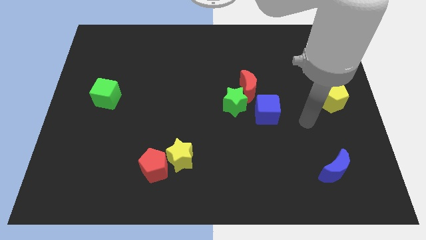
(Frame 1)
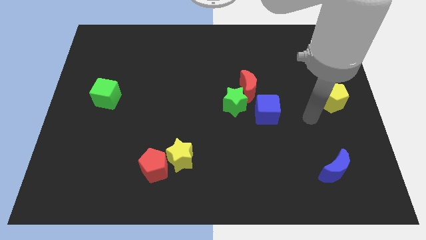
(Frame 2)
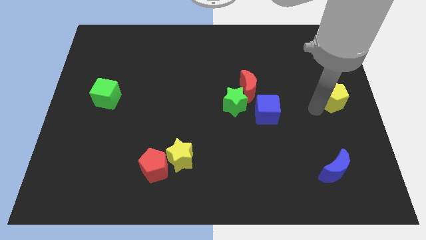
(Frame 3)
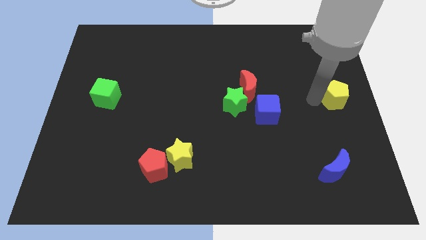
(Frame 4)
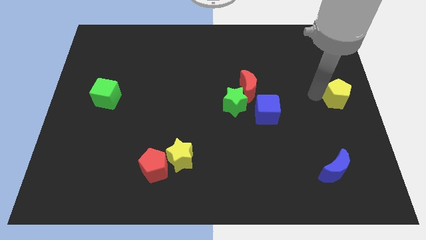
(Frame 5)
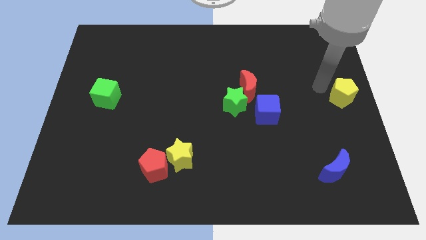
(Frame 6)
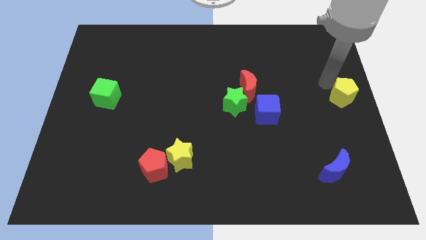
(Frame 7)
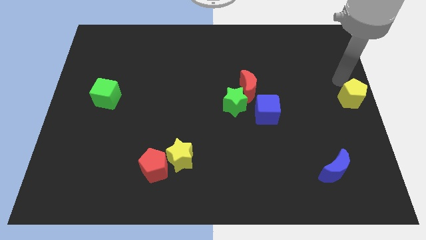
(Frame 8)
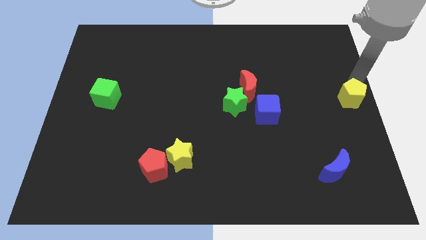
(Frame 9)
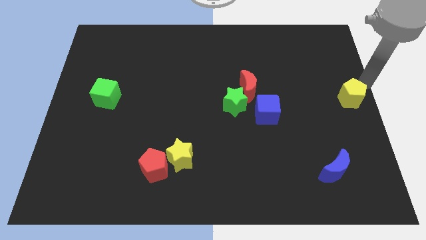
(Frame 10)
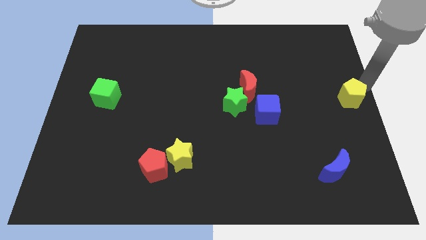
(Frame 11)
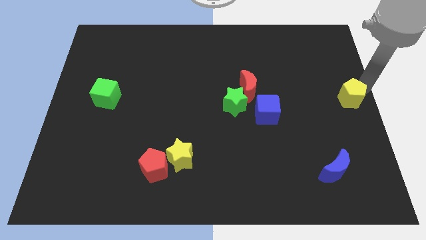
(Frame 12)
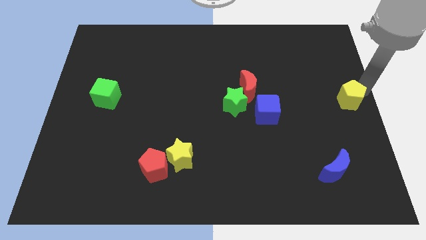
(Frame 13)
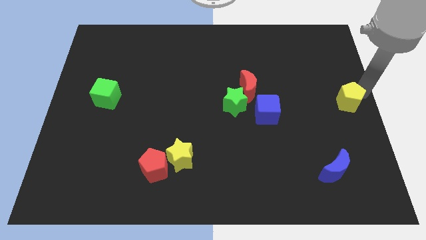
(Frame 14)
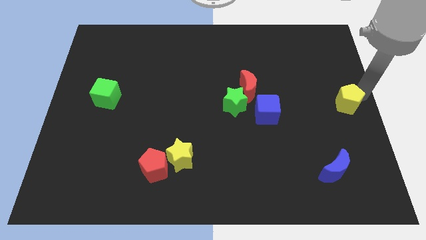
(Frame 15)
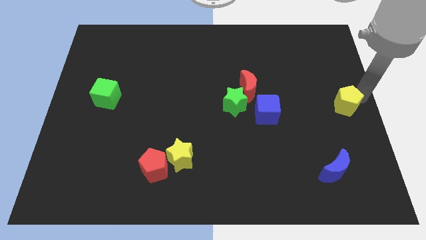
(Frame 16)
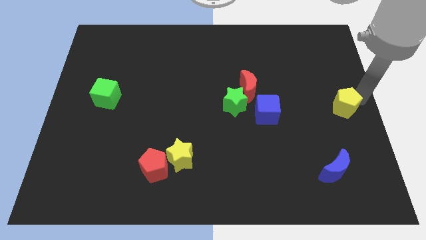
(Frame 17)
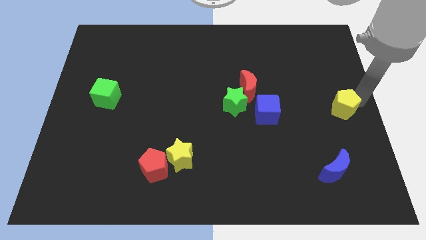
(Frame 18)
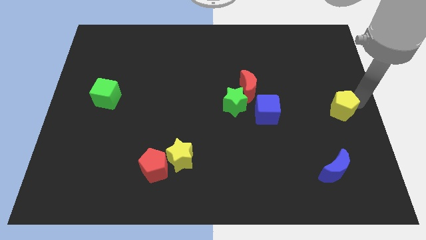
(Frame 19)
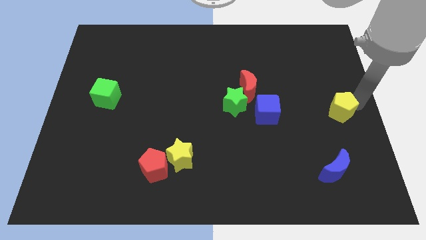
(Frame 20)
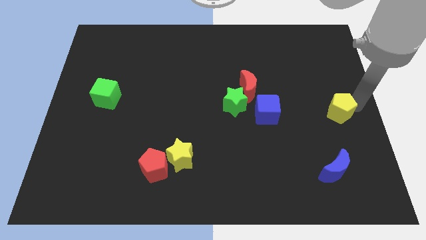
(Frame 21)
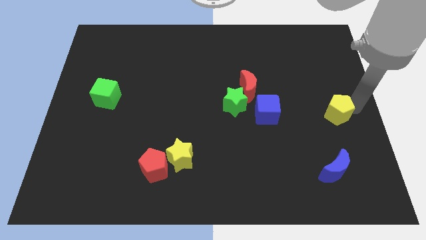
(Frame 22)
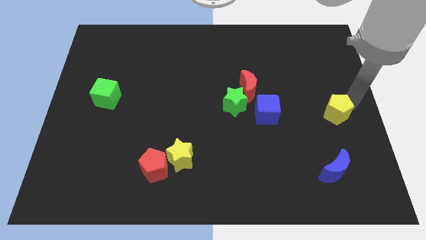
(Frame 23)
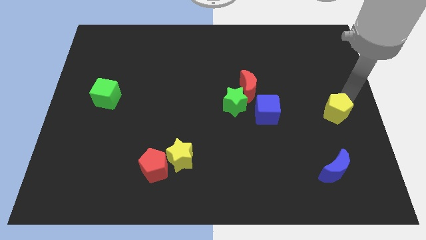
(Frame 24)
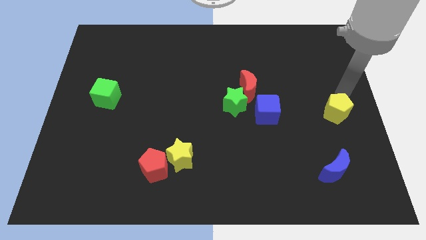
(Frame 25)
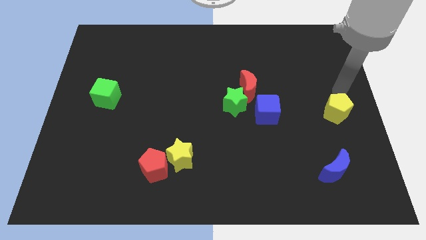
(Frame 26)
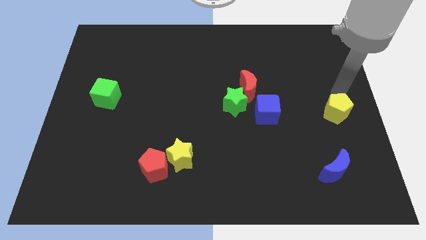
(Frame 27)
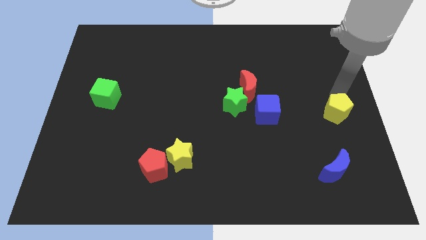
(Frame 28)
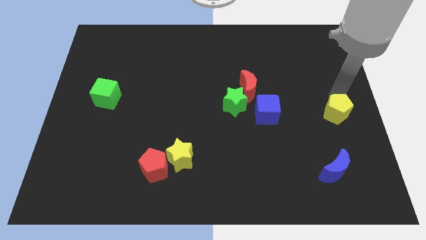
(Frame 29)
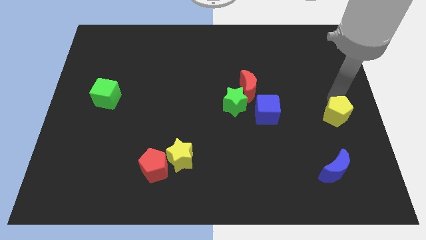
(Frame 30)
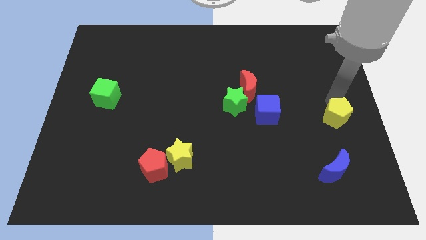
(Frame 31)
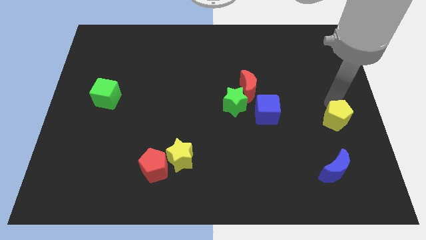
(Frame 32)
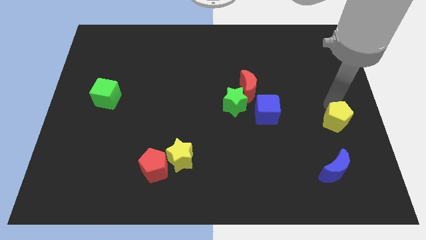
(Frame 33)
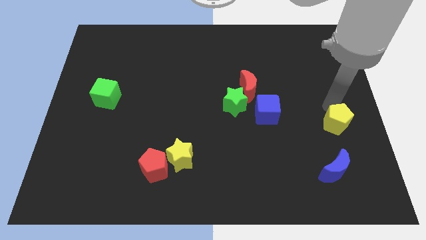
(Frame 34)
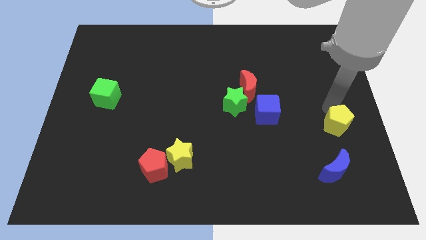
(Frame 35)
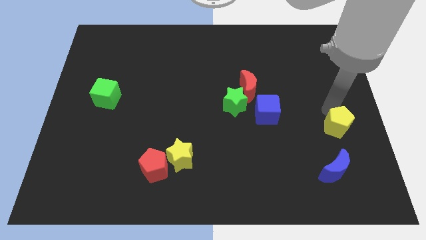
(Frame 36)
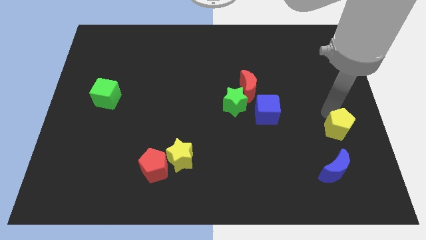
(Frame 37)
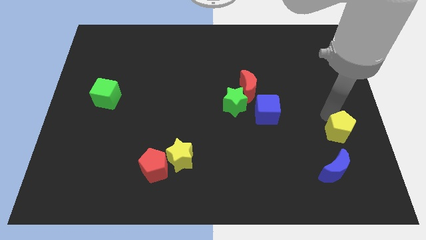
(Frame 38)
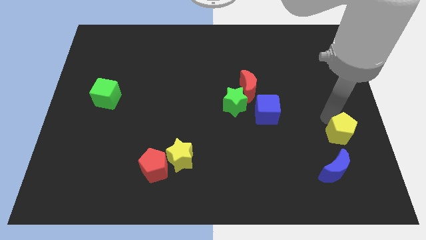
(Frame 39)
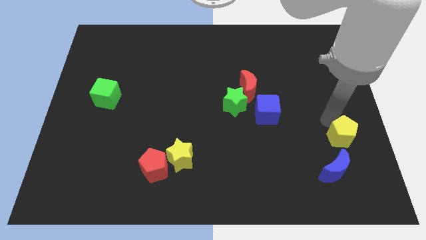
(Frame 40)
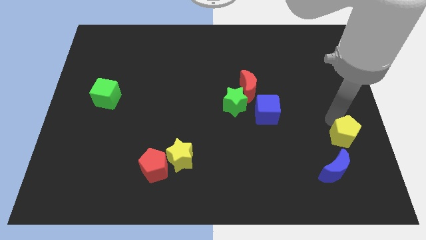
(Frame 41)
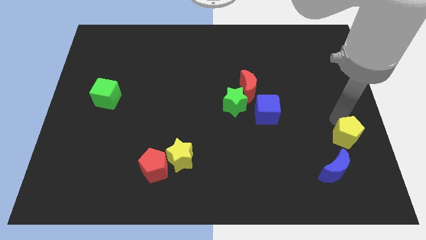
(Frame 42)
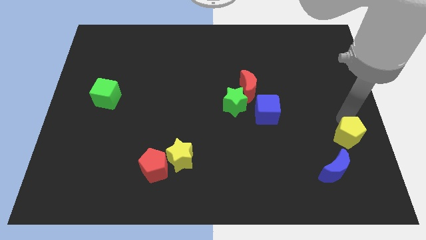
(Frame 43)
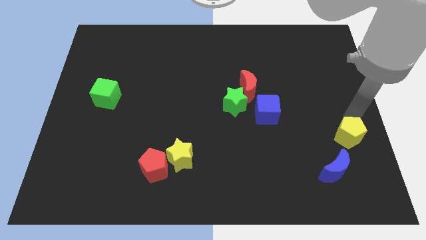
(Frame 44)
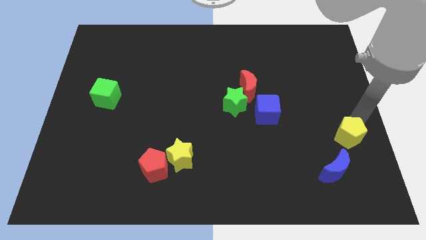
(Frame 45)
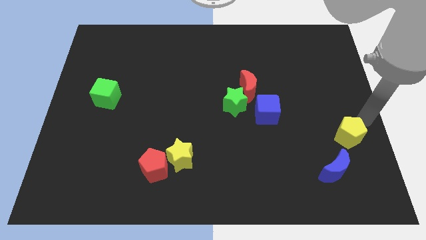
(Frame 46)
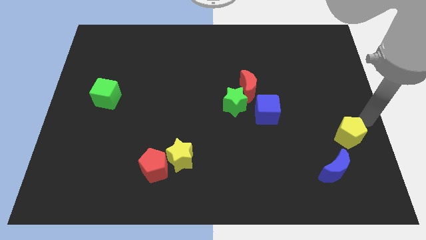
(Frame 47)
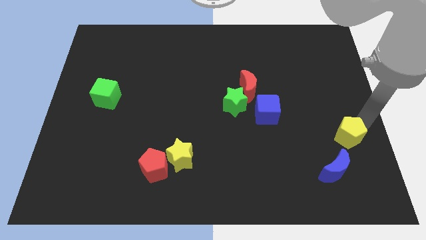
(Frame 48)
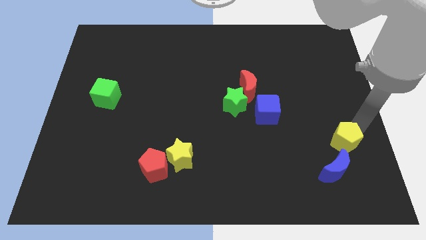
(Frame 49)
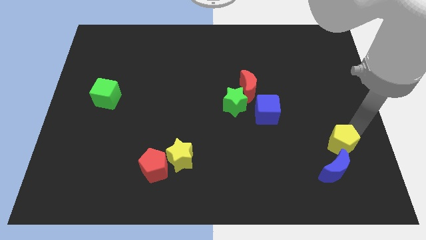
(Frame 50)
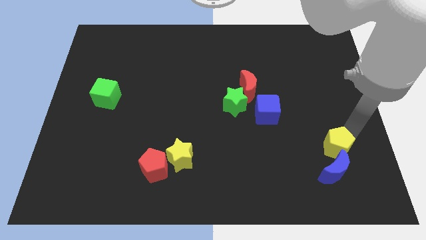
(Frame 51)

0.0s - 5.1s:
slide the yellow pentagon next to the blue moon

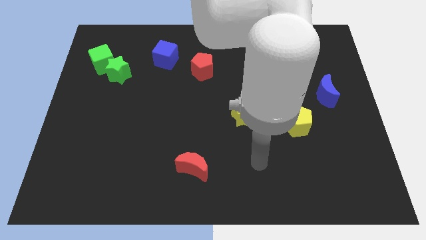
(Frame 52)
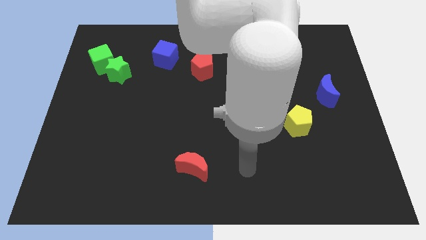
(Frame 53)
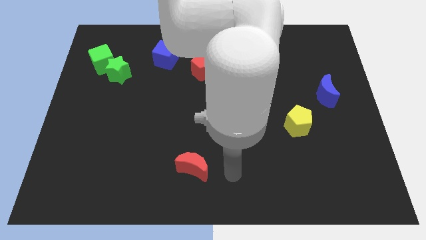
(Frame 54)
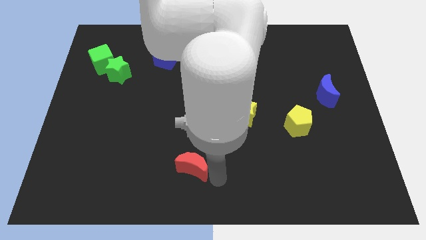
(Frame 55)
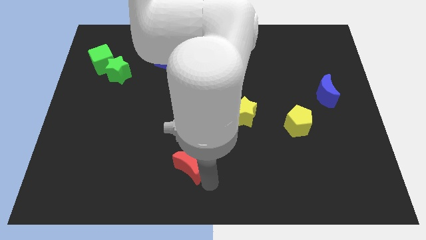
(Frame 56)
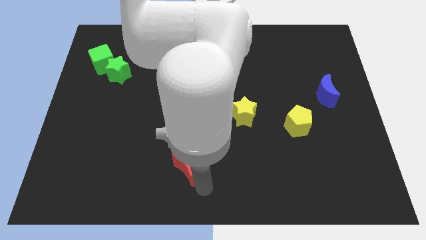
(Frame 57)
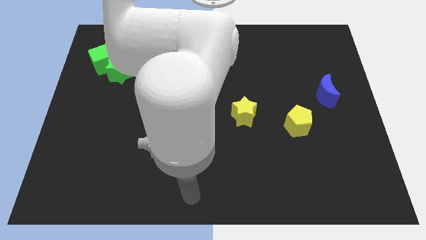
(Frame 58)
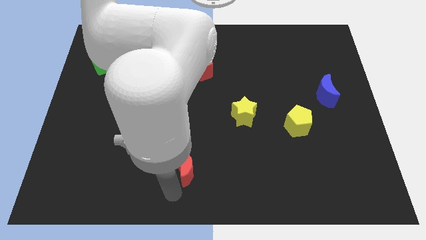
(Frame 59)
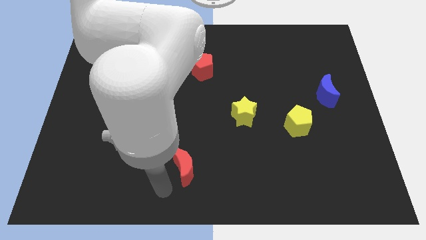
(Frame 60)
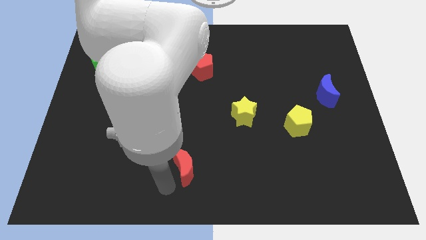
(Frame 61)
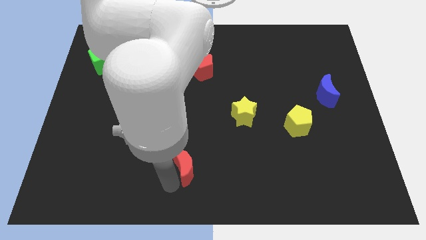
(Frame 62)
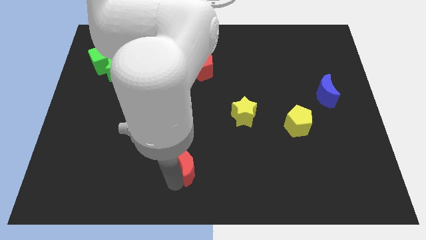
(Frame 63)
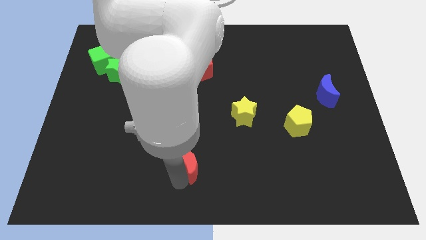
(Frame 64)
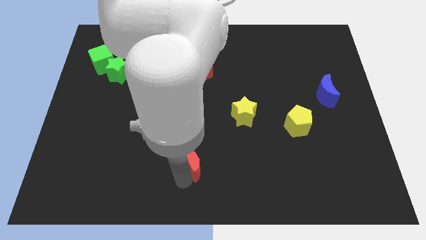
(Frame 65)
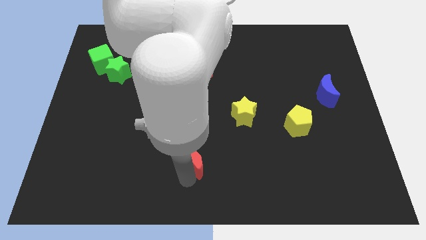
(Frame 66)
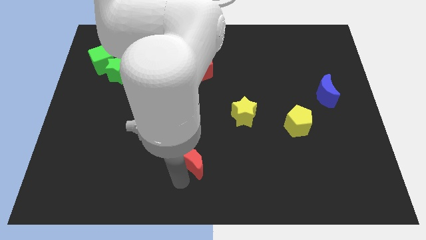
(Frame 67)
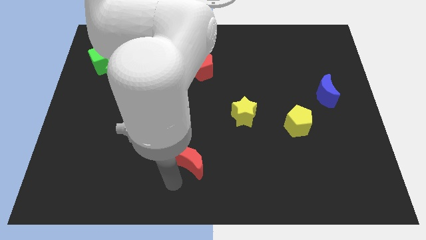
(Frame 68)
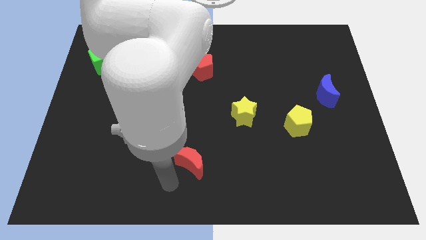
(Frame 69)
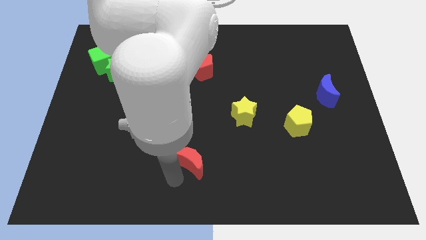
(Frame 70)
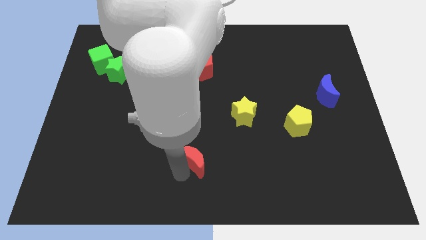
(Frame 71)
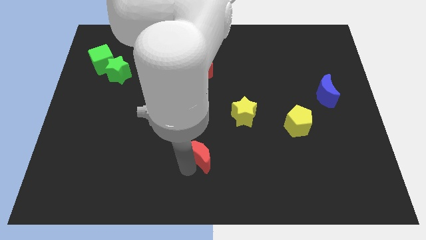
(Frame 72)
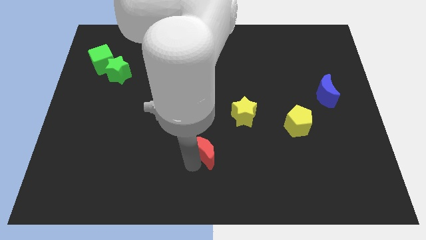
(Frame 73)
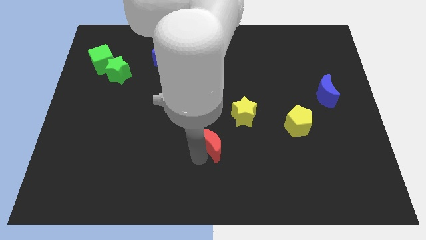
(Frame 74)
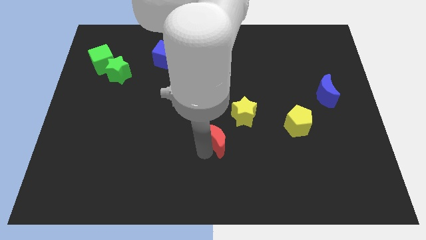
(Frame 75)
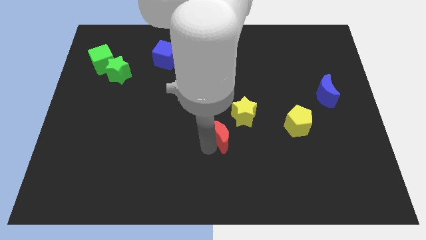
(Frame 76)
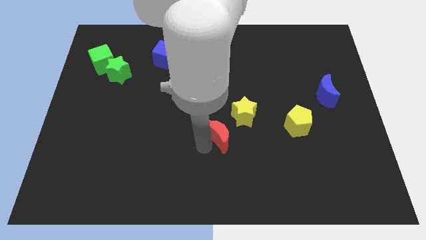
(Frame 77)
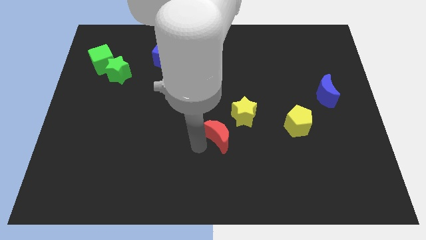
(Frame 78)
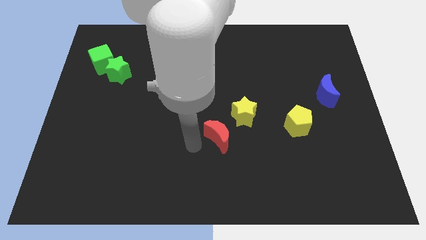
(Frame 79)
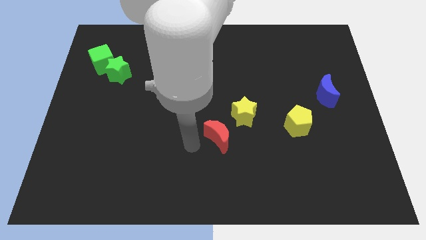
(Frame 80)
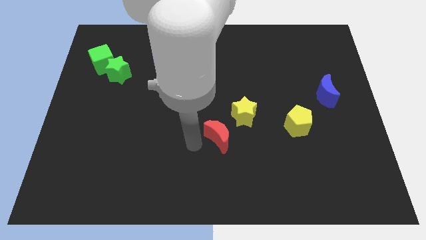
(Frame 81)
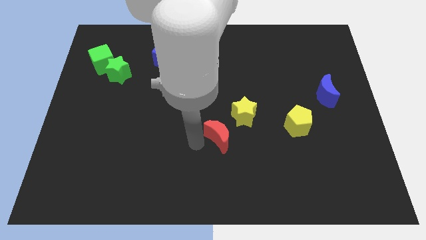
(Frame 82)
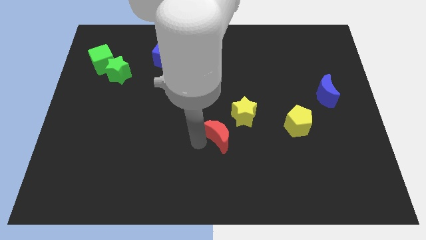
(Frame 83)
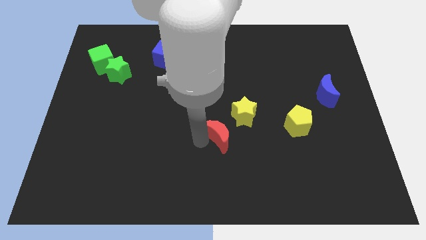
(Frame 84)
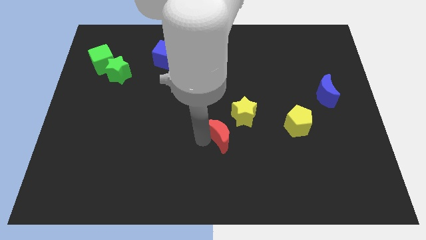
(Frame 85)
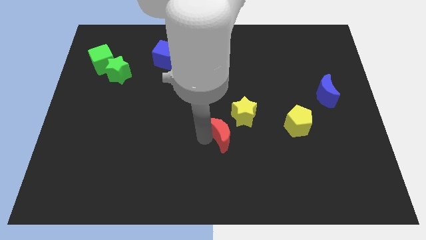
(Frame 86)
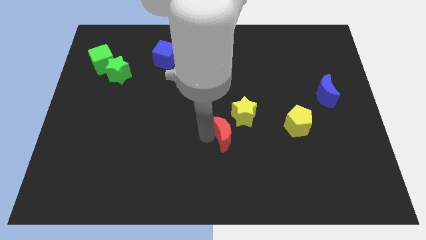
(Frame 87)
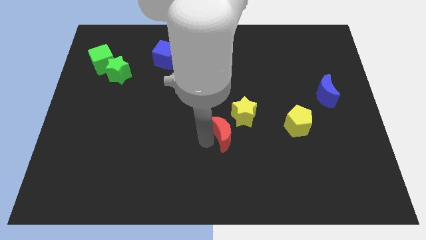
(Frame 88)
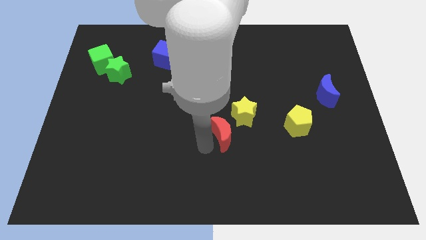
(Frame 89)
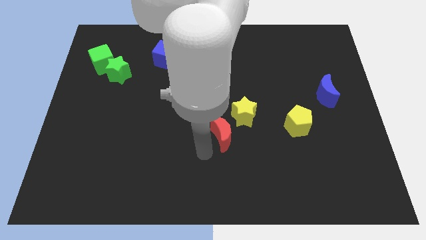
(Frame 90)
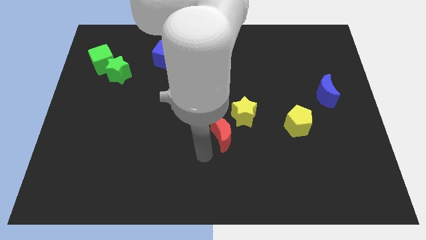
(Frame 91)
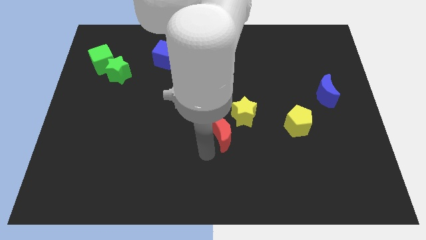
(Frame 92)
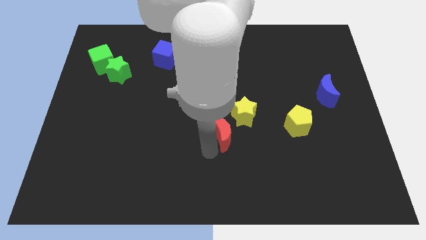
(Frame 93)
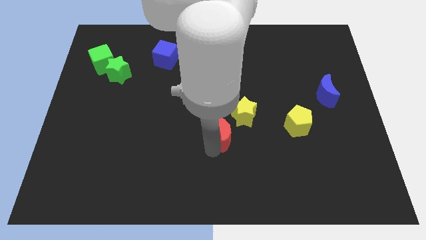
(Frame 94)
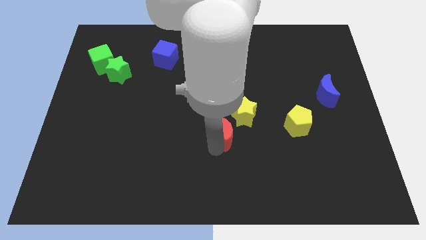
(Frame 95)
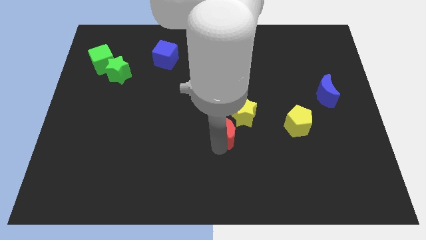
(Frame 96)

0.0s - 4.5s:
move the red moon close to the yellow star
